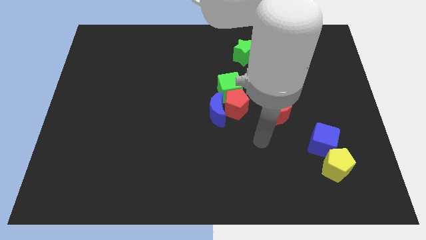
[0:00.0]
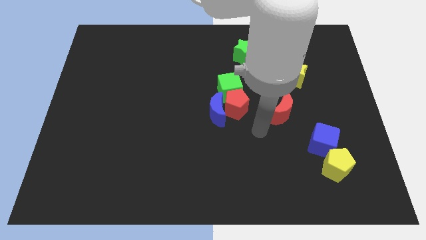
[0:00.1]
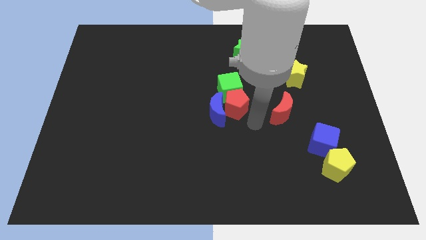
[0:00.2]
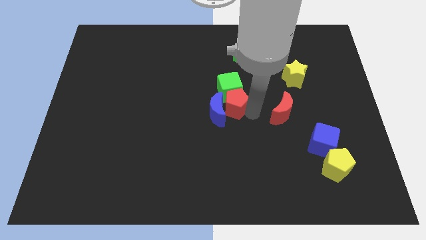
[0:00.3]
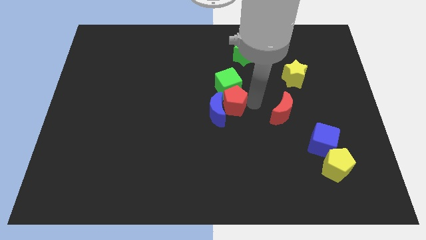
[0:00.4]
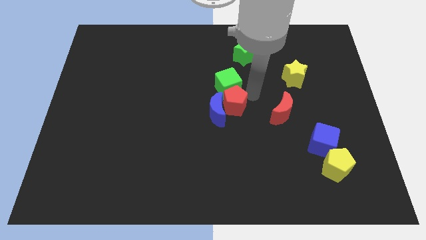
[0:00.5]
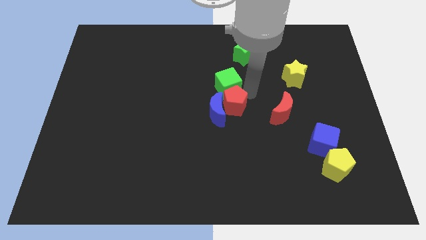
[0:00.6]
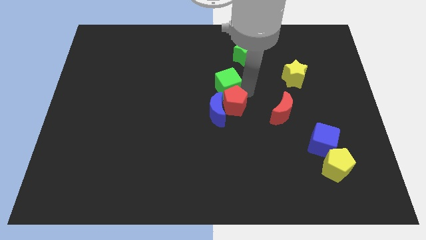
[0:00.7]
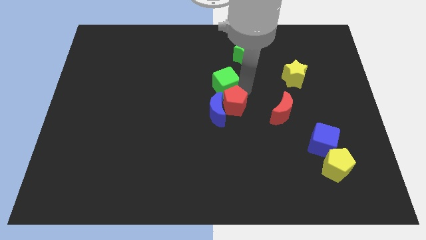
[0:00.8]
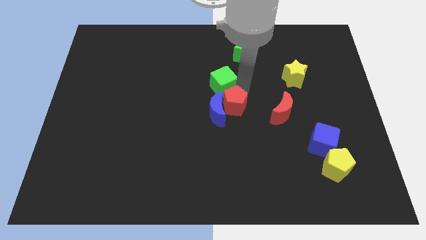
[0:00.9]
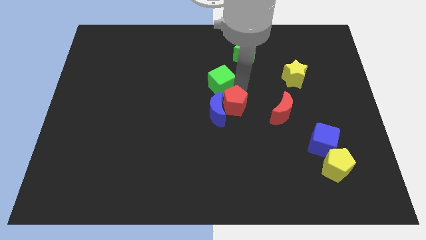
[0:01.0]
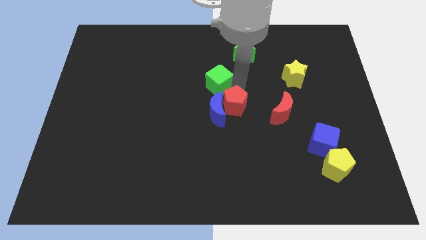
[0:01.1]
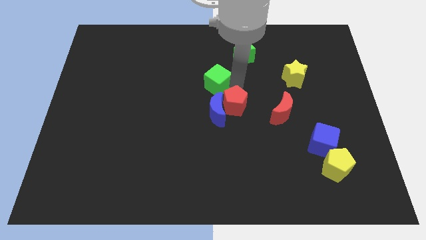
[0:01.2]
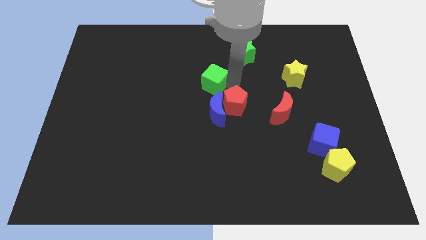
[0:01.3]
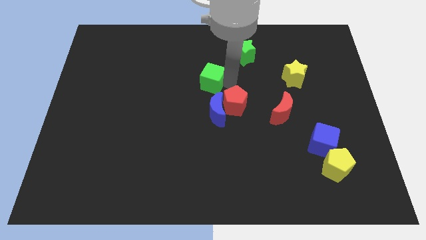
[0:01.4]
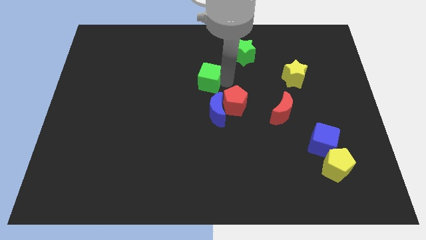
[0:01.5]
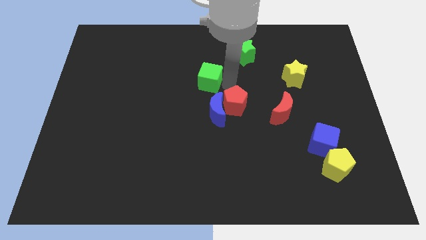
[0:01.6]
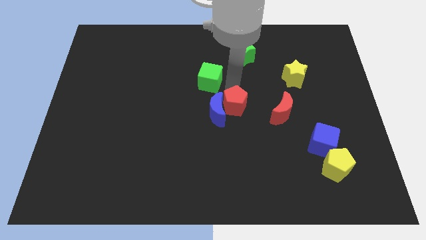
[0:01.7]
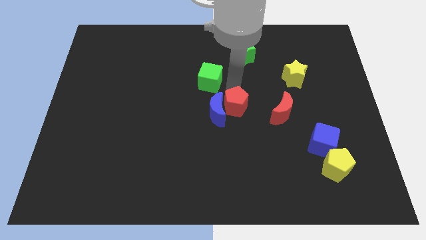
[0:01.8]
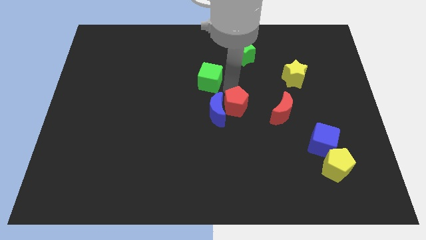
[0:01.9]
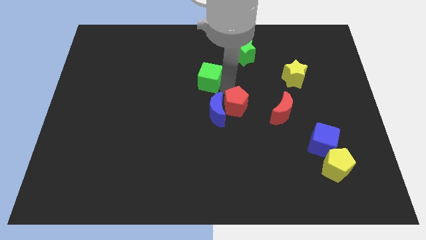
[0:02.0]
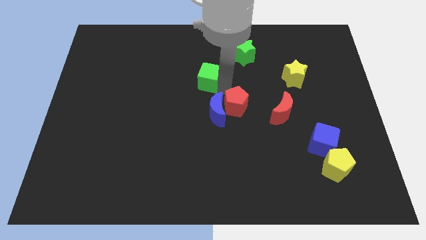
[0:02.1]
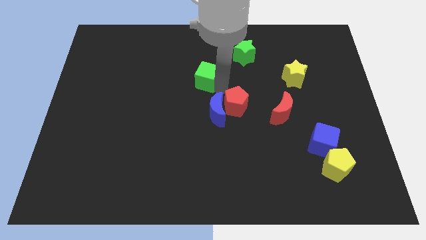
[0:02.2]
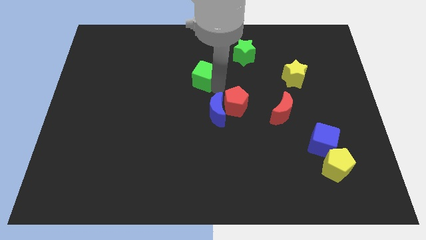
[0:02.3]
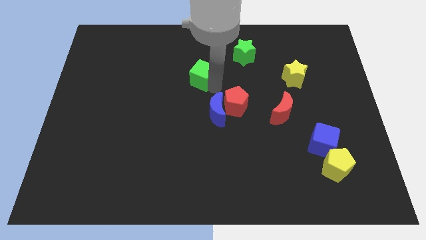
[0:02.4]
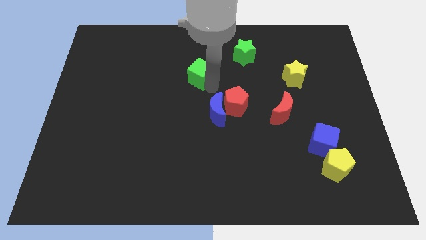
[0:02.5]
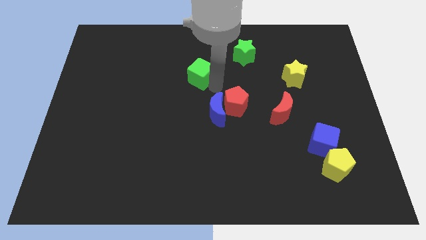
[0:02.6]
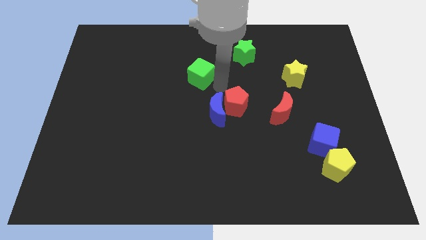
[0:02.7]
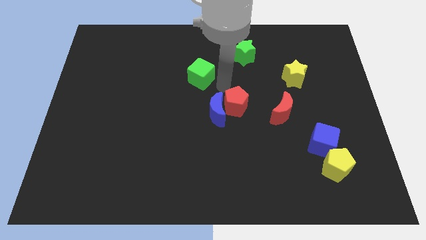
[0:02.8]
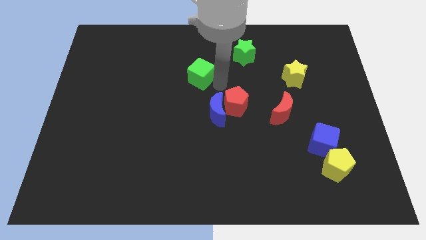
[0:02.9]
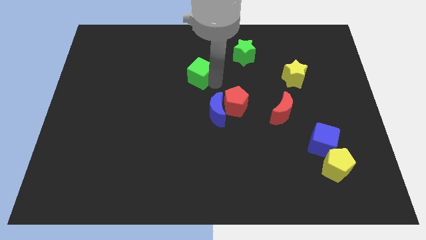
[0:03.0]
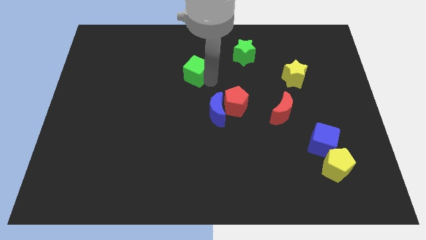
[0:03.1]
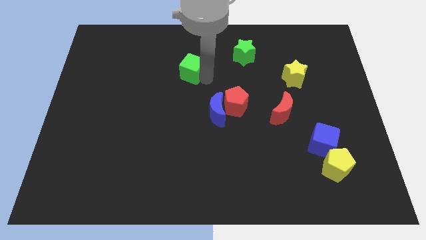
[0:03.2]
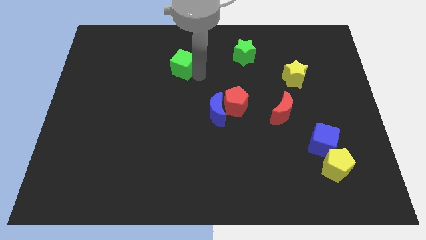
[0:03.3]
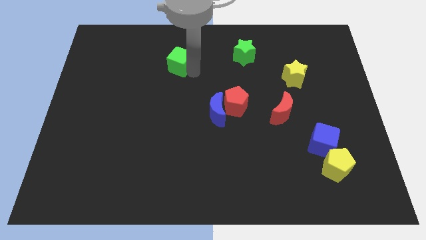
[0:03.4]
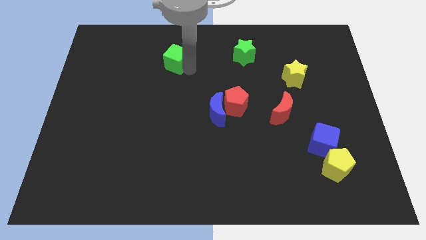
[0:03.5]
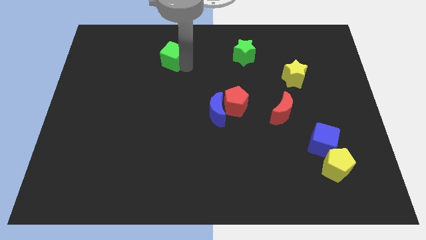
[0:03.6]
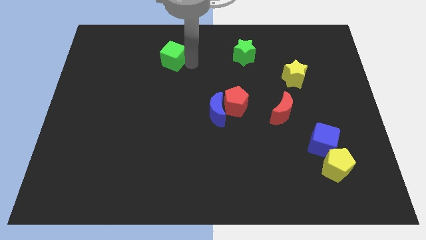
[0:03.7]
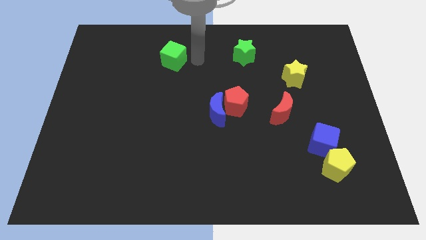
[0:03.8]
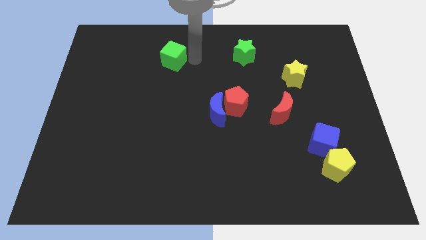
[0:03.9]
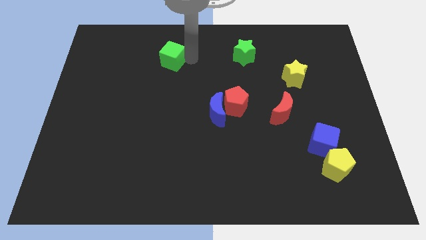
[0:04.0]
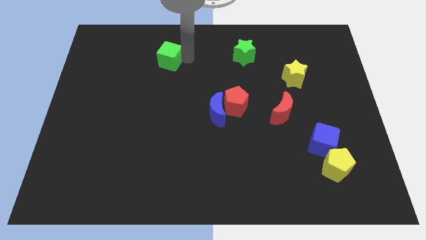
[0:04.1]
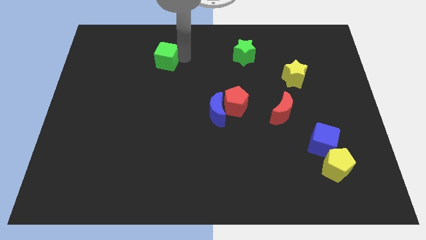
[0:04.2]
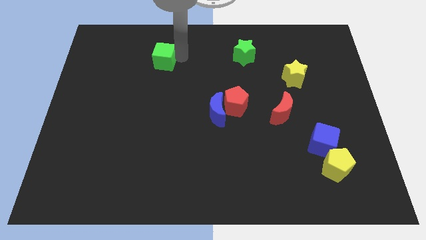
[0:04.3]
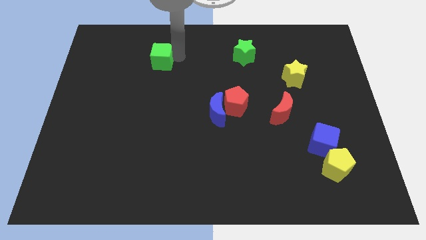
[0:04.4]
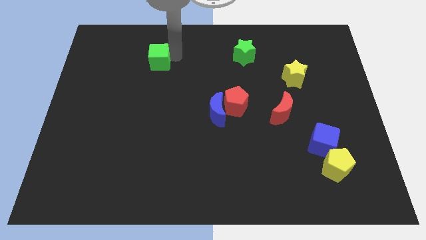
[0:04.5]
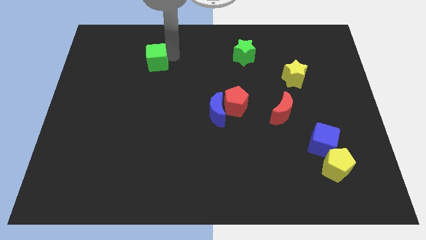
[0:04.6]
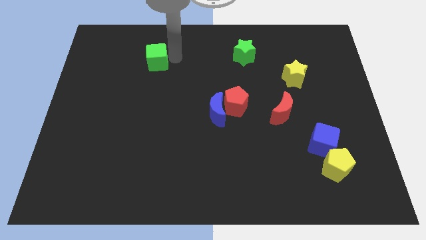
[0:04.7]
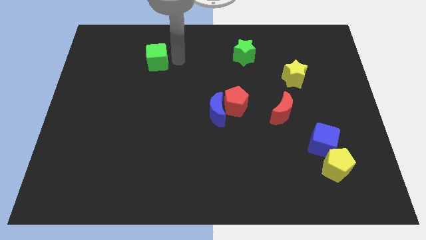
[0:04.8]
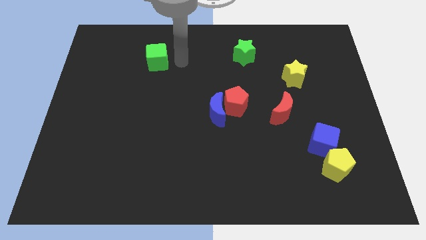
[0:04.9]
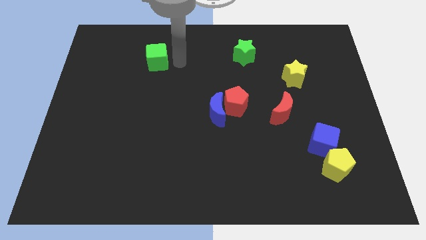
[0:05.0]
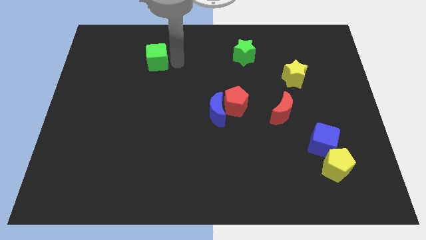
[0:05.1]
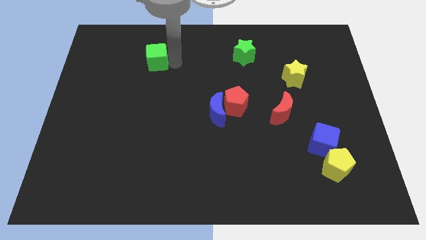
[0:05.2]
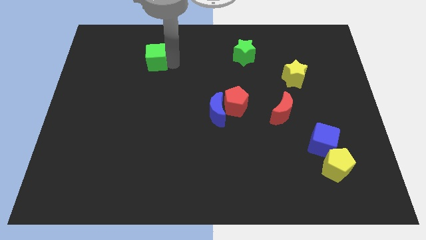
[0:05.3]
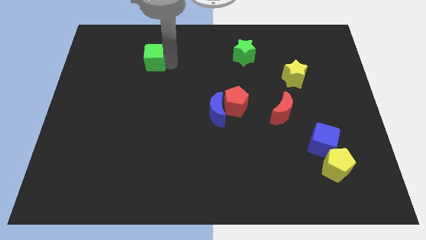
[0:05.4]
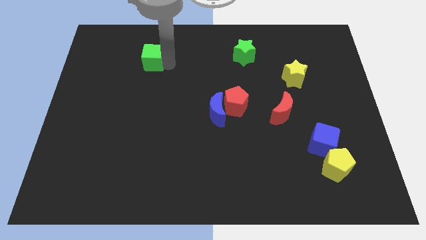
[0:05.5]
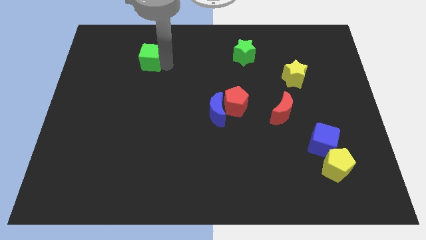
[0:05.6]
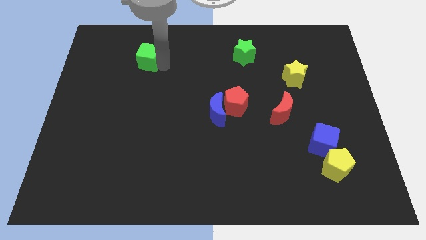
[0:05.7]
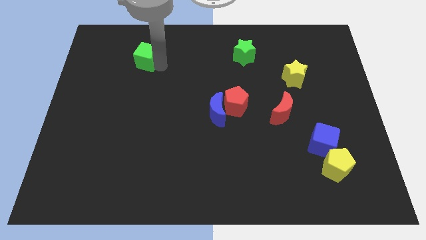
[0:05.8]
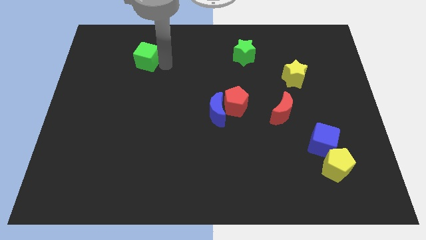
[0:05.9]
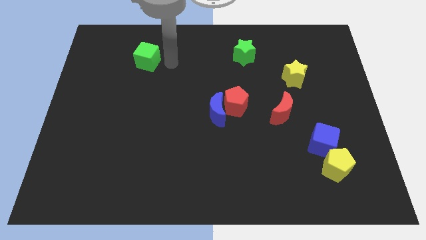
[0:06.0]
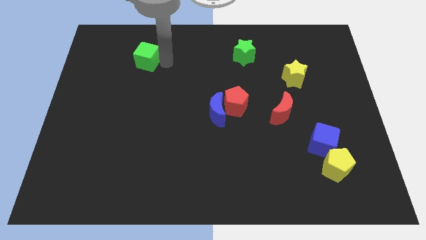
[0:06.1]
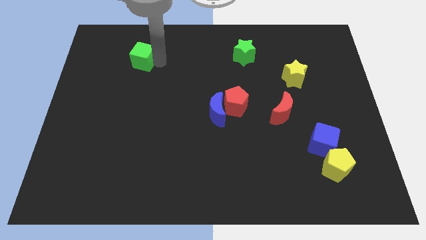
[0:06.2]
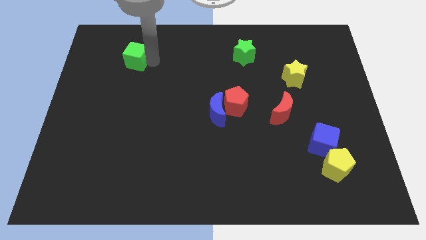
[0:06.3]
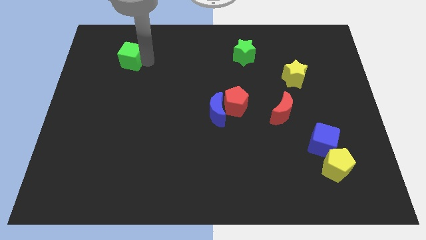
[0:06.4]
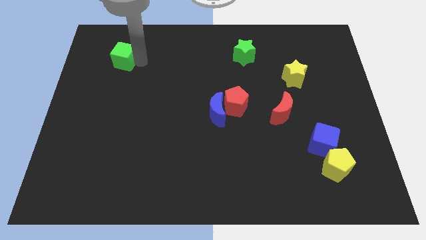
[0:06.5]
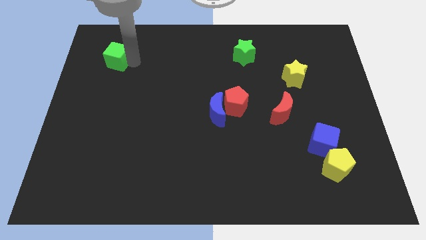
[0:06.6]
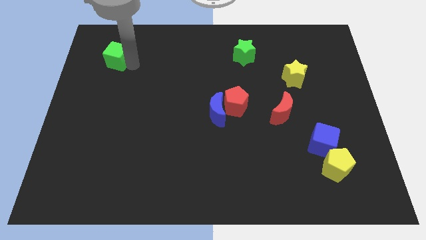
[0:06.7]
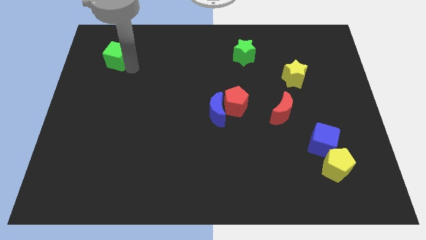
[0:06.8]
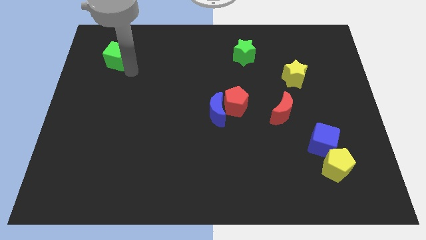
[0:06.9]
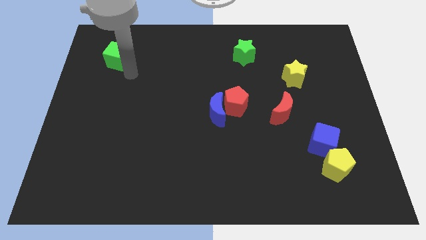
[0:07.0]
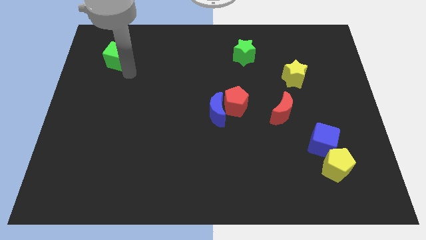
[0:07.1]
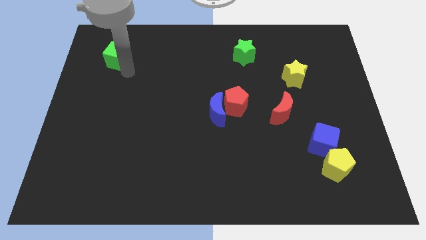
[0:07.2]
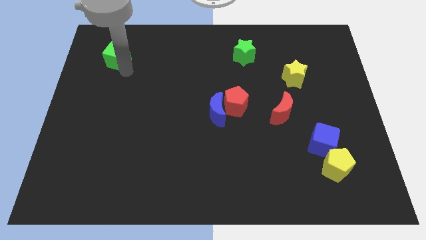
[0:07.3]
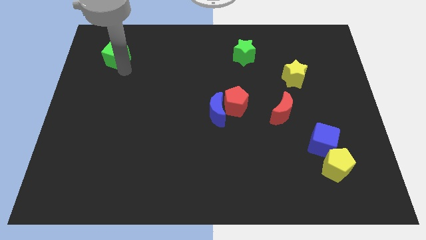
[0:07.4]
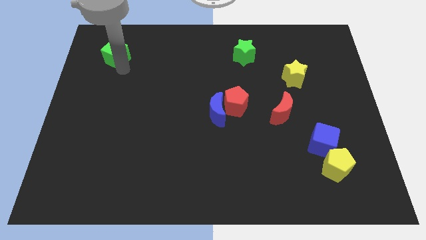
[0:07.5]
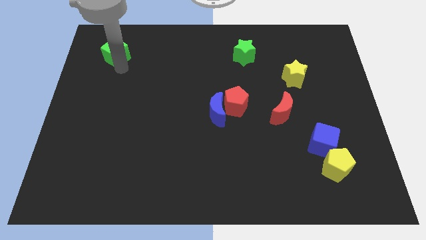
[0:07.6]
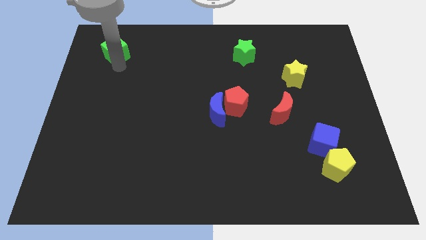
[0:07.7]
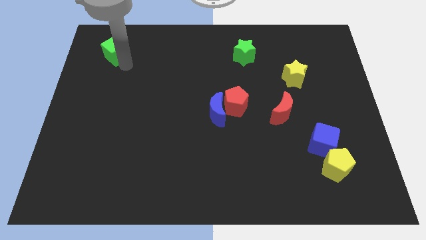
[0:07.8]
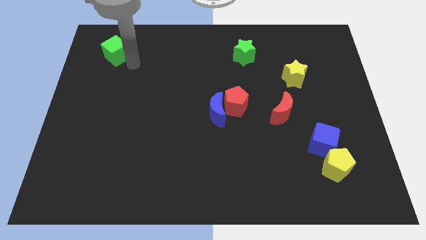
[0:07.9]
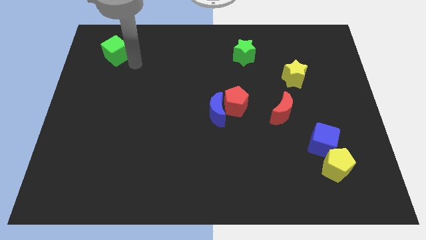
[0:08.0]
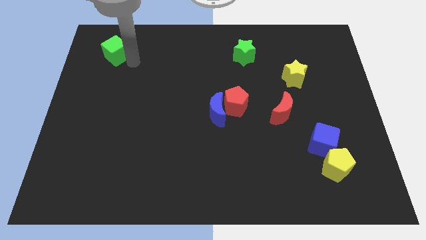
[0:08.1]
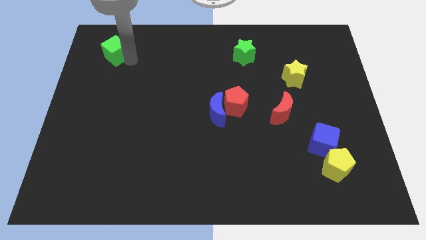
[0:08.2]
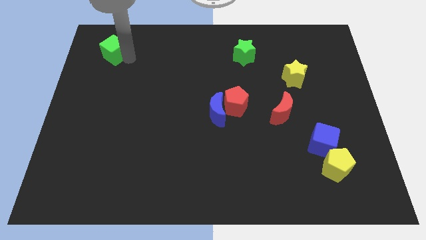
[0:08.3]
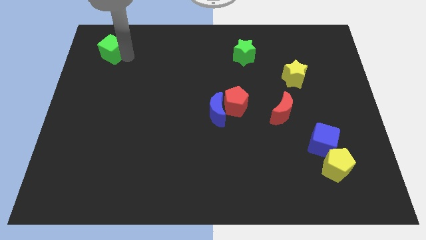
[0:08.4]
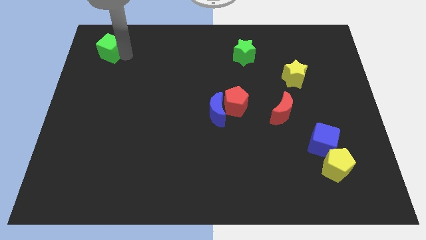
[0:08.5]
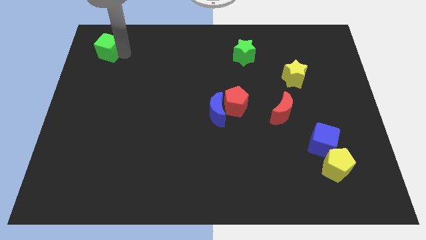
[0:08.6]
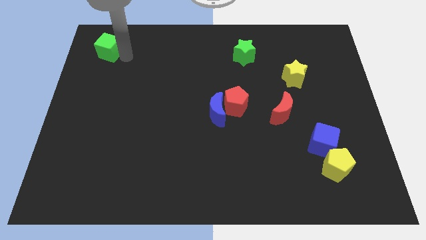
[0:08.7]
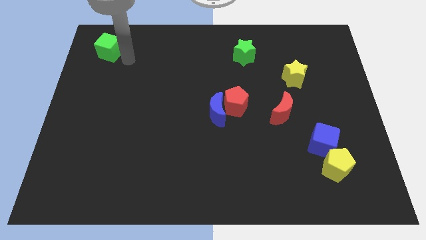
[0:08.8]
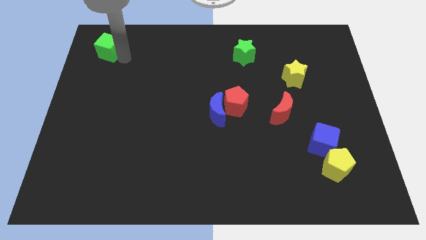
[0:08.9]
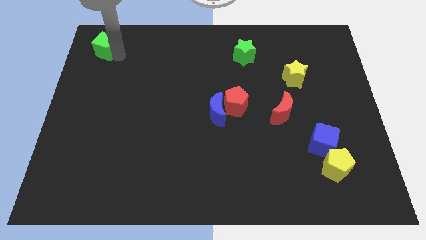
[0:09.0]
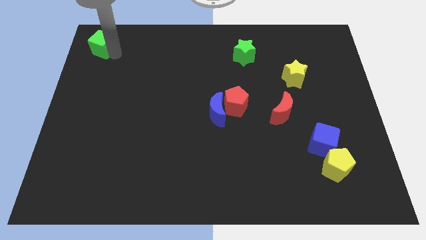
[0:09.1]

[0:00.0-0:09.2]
slide the green cube to the upper left corner
